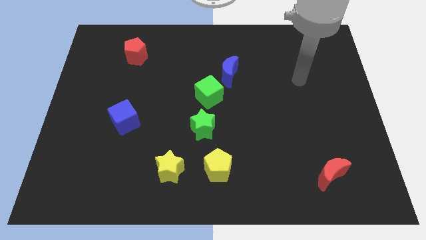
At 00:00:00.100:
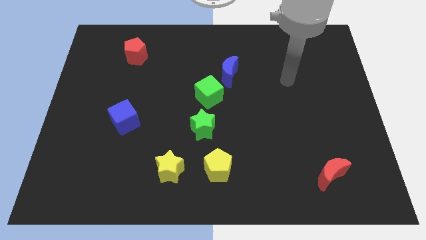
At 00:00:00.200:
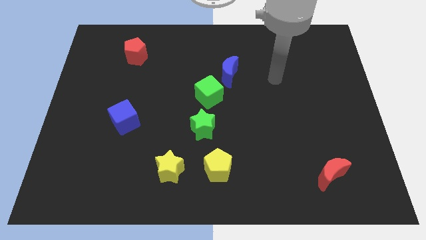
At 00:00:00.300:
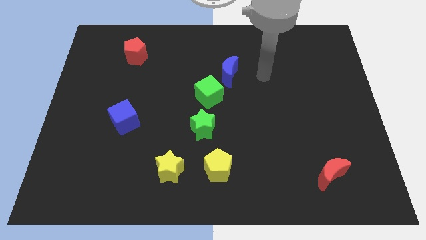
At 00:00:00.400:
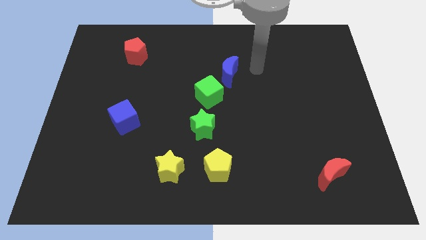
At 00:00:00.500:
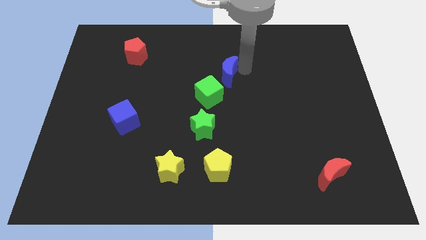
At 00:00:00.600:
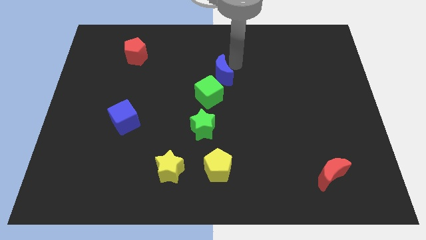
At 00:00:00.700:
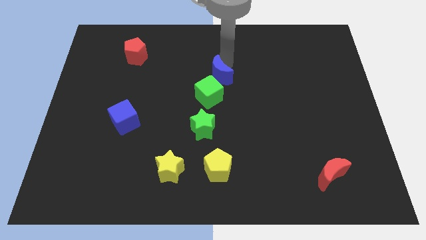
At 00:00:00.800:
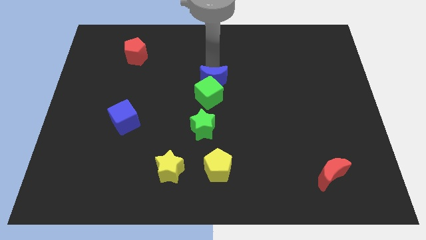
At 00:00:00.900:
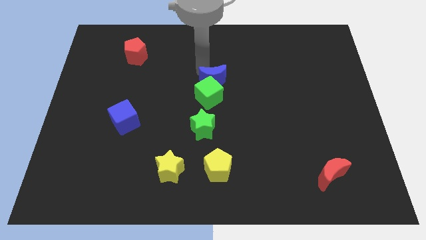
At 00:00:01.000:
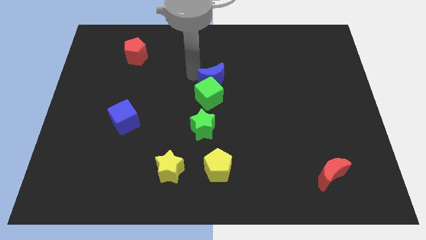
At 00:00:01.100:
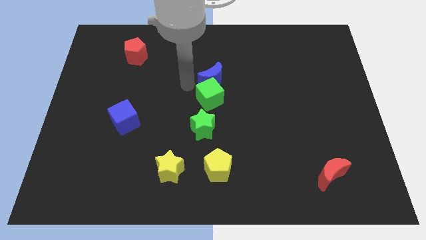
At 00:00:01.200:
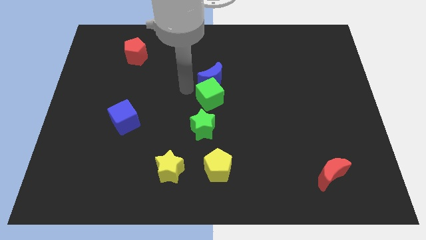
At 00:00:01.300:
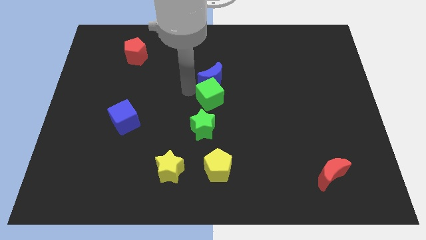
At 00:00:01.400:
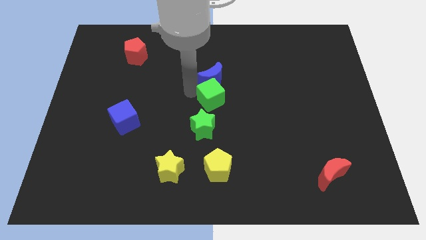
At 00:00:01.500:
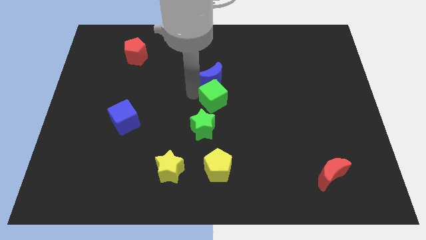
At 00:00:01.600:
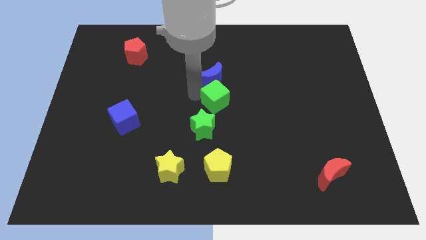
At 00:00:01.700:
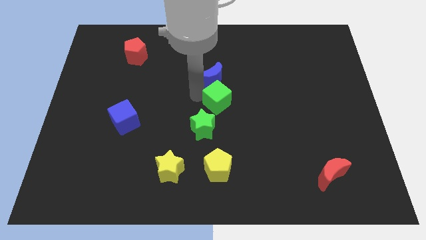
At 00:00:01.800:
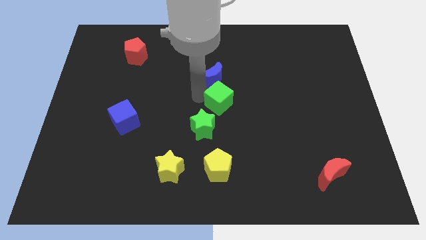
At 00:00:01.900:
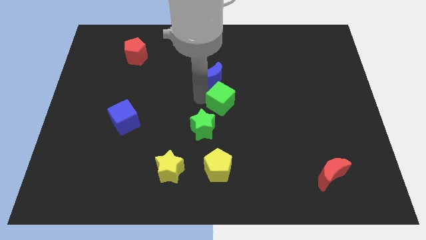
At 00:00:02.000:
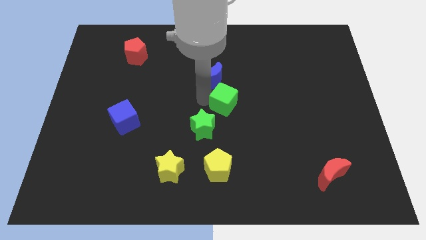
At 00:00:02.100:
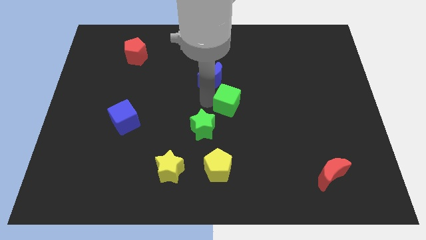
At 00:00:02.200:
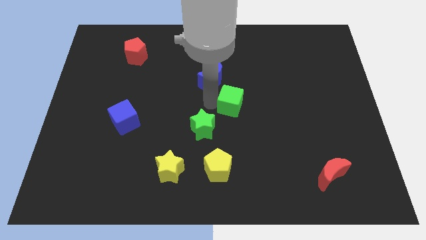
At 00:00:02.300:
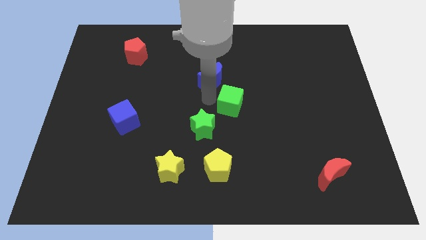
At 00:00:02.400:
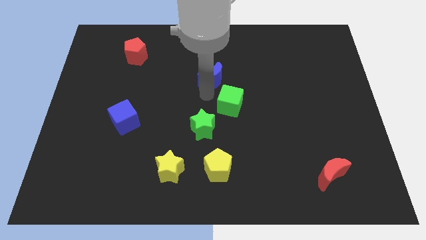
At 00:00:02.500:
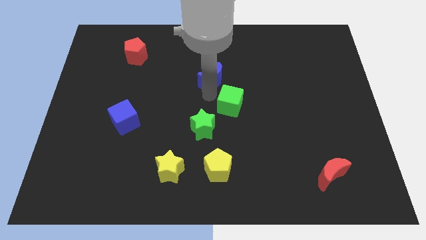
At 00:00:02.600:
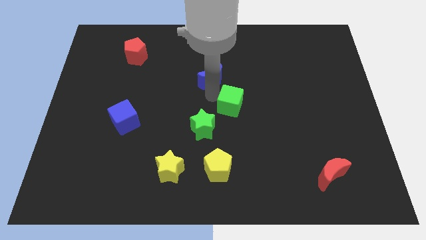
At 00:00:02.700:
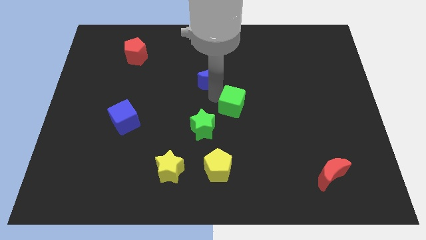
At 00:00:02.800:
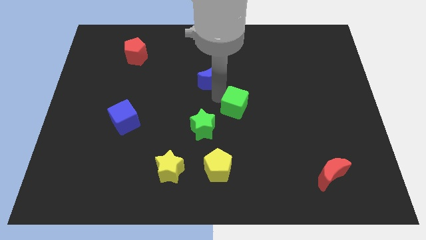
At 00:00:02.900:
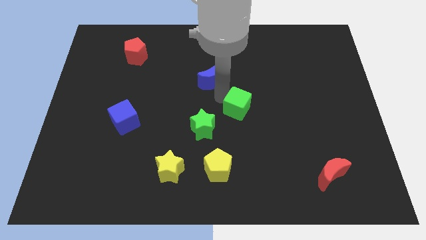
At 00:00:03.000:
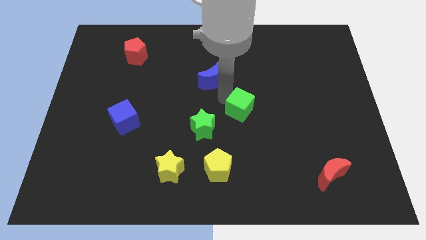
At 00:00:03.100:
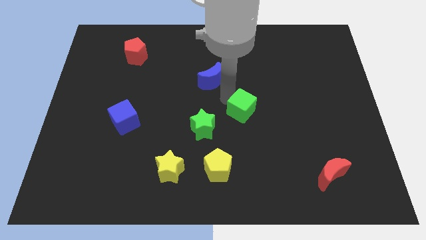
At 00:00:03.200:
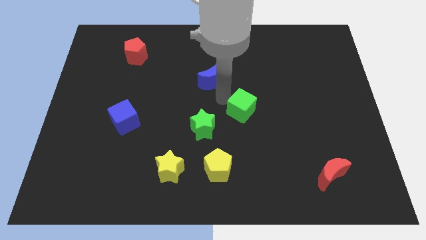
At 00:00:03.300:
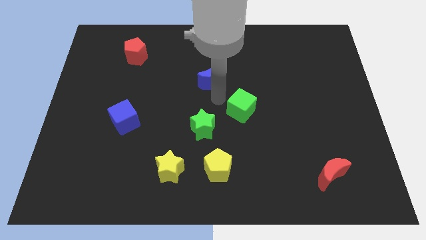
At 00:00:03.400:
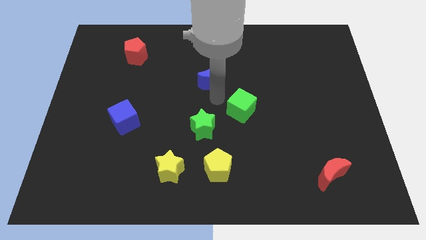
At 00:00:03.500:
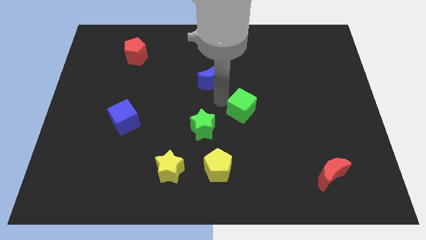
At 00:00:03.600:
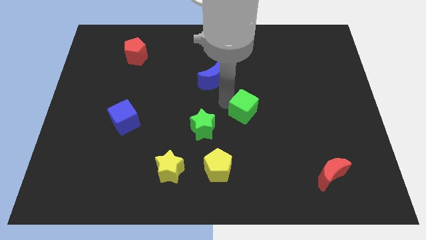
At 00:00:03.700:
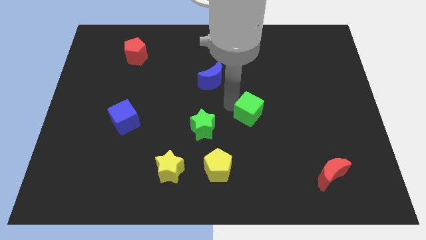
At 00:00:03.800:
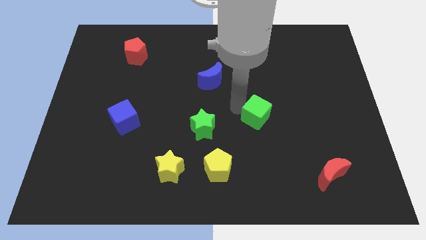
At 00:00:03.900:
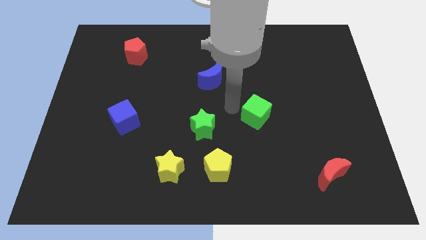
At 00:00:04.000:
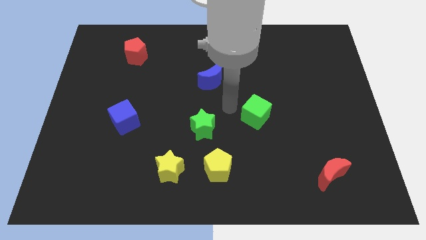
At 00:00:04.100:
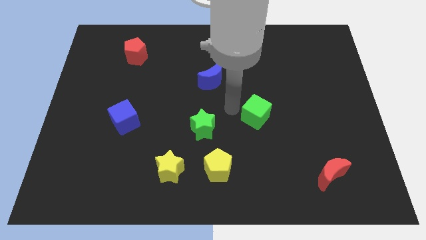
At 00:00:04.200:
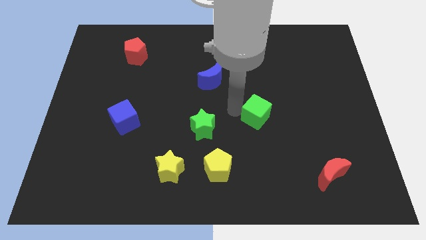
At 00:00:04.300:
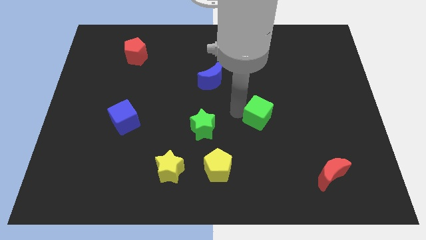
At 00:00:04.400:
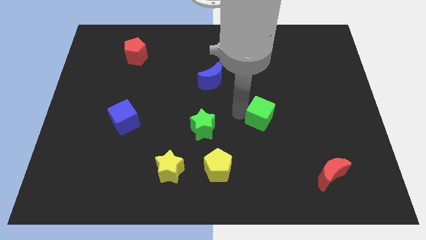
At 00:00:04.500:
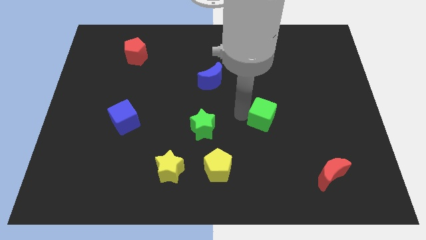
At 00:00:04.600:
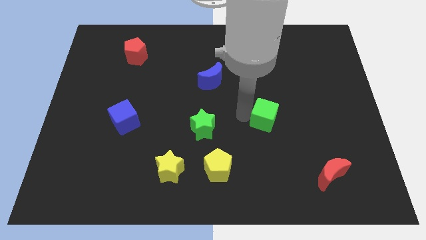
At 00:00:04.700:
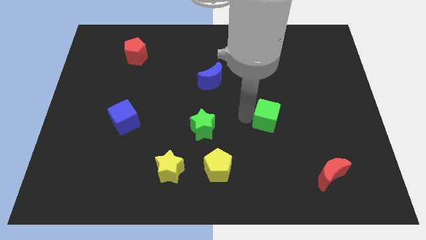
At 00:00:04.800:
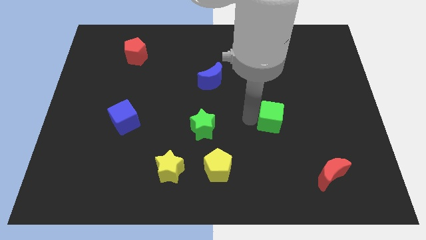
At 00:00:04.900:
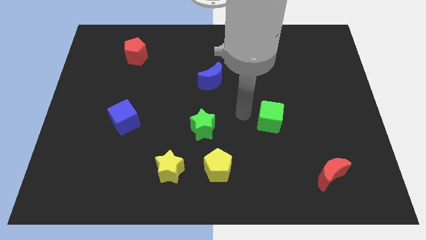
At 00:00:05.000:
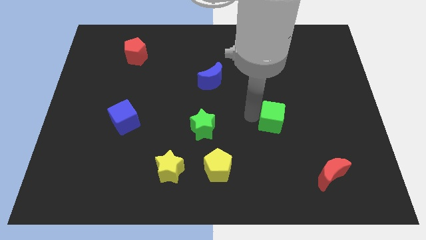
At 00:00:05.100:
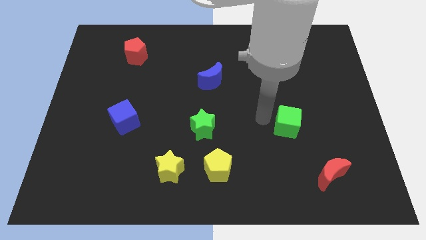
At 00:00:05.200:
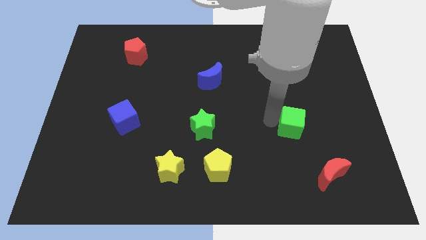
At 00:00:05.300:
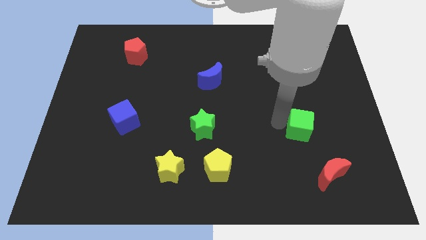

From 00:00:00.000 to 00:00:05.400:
push the green cube to the top of the red moon

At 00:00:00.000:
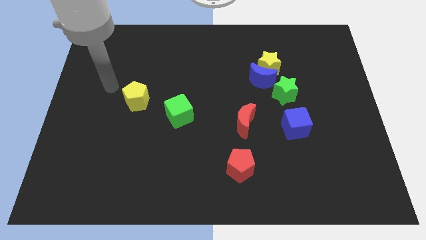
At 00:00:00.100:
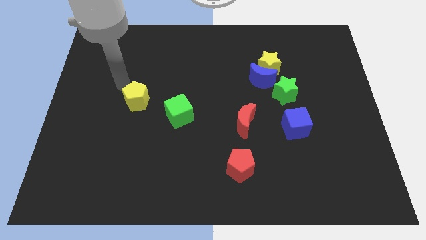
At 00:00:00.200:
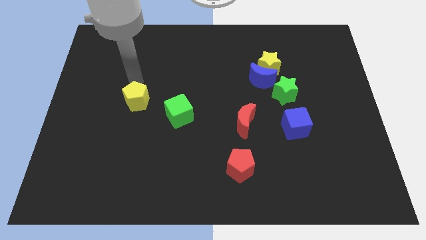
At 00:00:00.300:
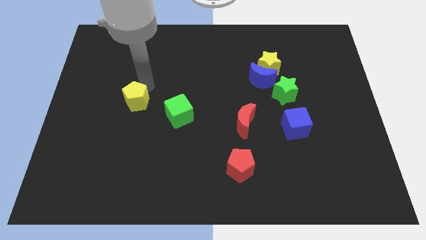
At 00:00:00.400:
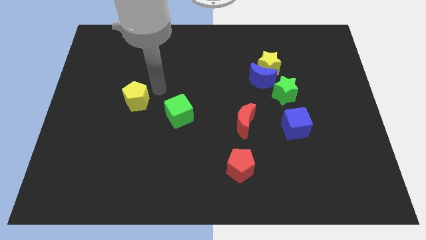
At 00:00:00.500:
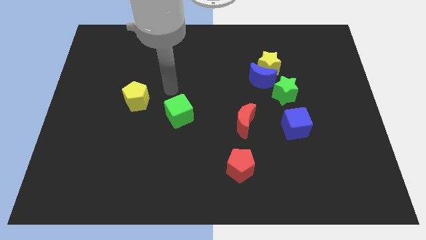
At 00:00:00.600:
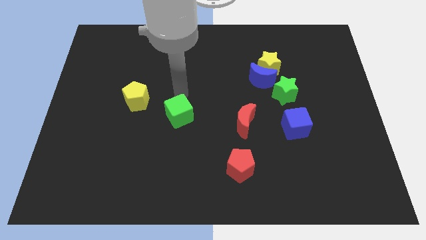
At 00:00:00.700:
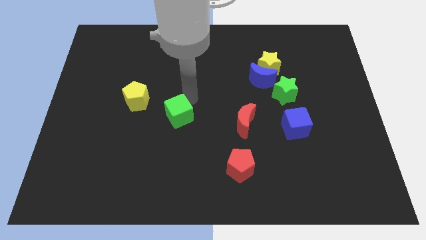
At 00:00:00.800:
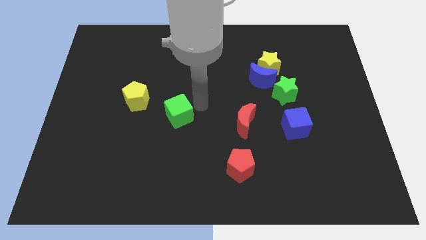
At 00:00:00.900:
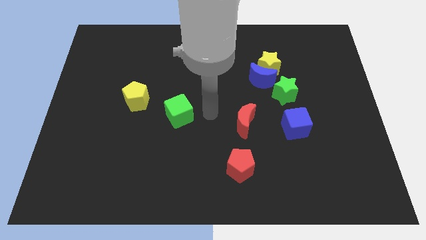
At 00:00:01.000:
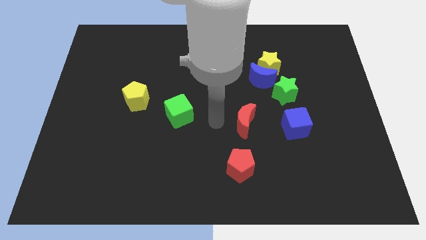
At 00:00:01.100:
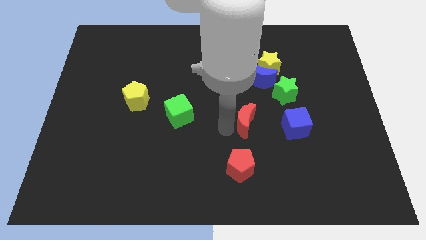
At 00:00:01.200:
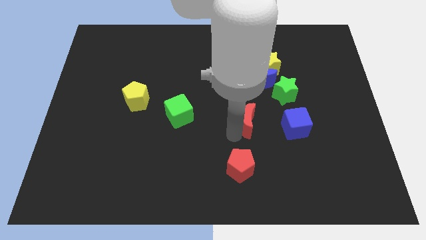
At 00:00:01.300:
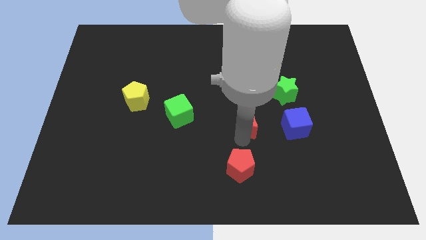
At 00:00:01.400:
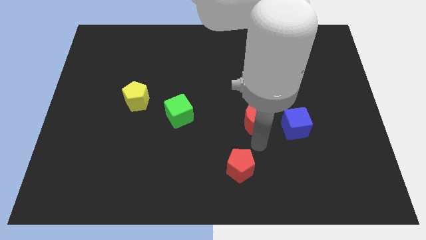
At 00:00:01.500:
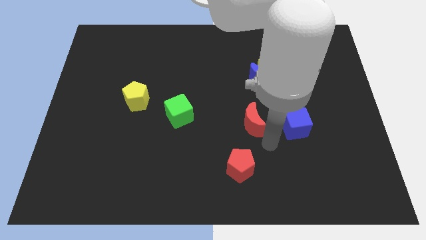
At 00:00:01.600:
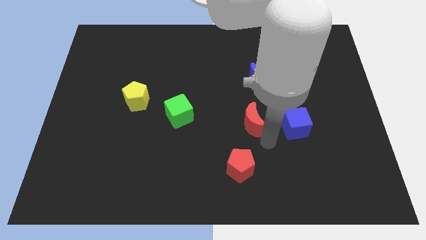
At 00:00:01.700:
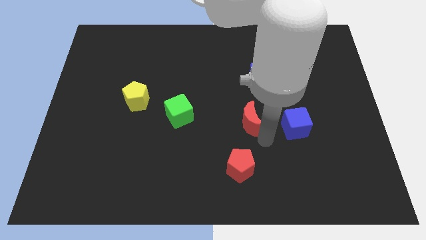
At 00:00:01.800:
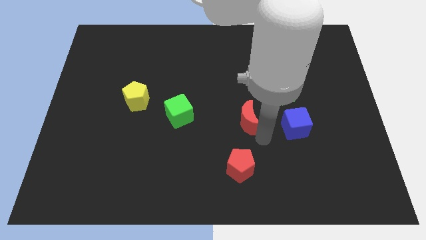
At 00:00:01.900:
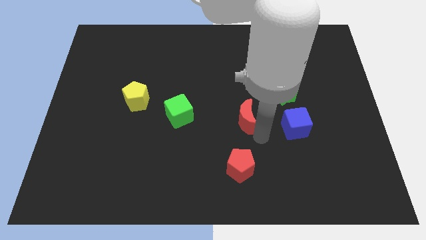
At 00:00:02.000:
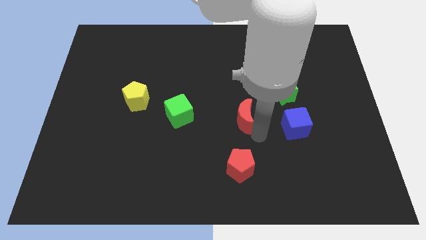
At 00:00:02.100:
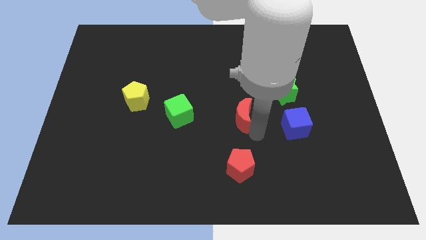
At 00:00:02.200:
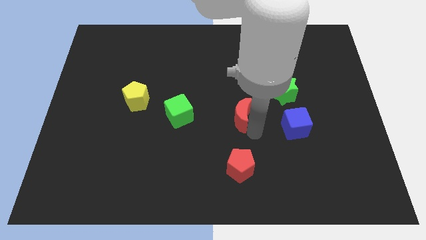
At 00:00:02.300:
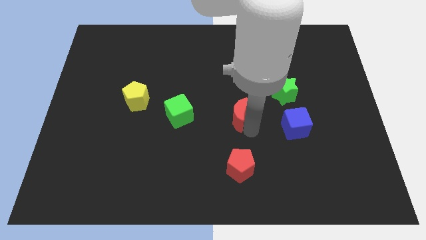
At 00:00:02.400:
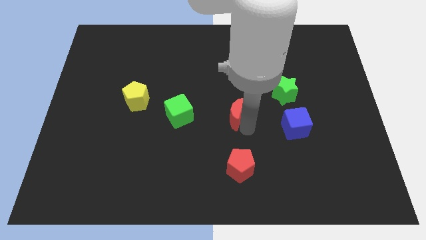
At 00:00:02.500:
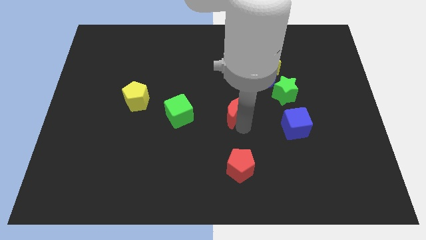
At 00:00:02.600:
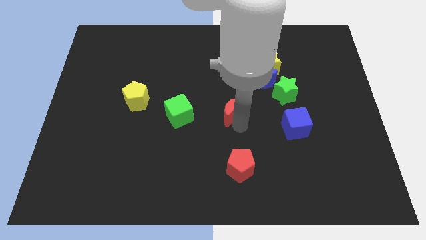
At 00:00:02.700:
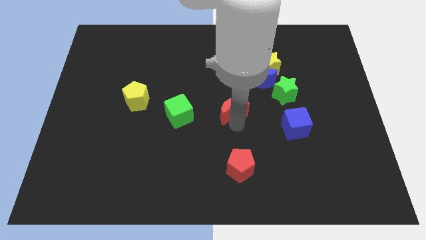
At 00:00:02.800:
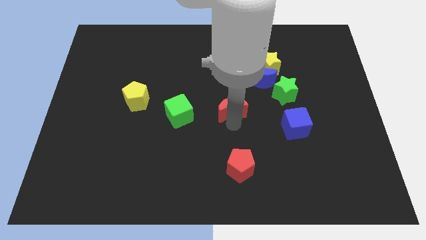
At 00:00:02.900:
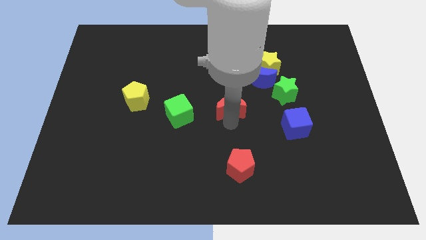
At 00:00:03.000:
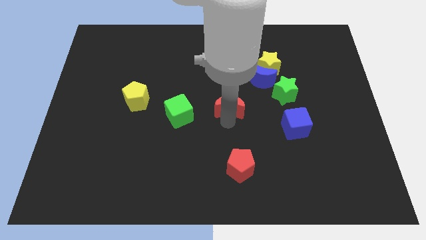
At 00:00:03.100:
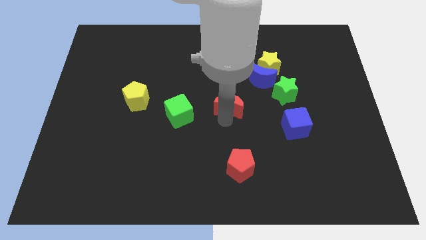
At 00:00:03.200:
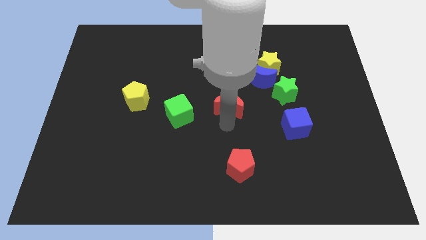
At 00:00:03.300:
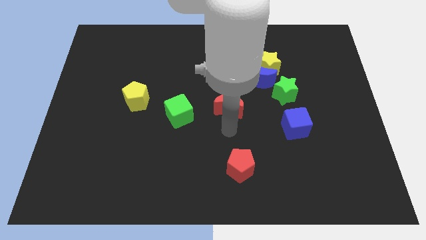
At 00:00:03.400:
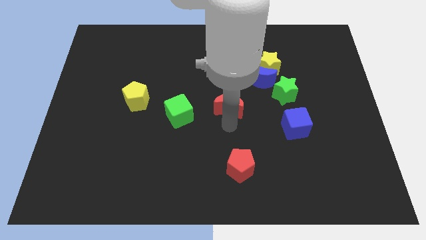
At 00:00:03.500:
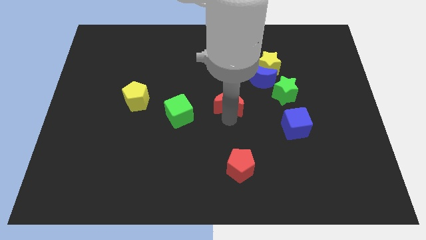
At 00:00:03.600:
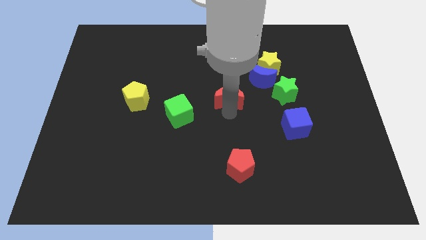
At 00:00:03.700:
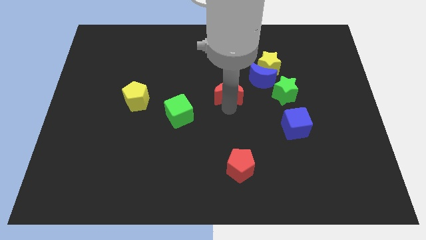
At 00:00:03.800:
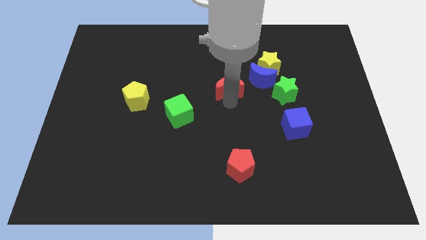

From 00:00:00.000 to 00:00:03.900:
put the red moon just left of the blue moon
